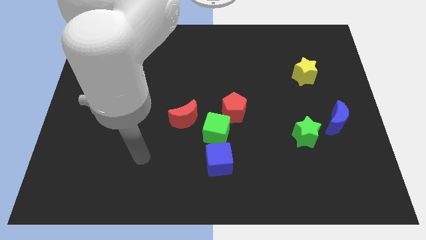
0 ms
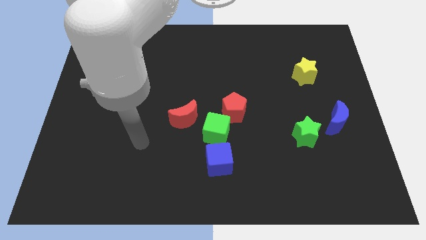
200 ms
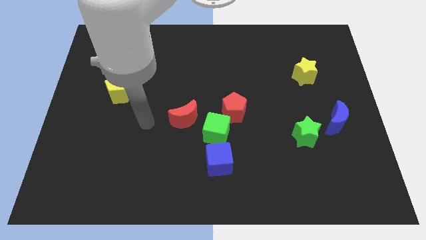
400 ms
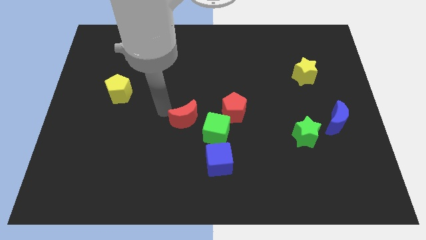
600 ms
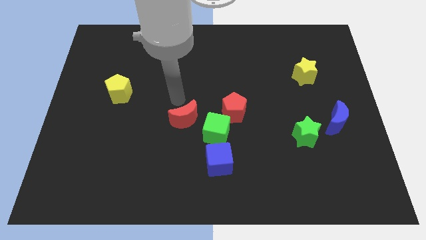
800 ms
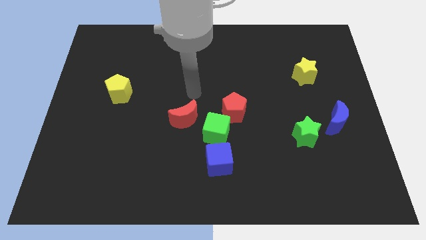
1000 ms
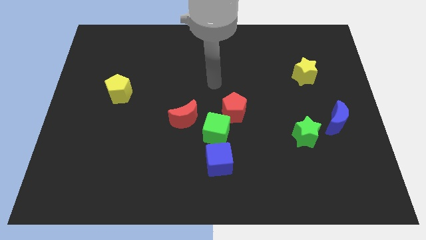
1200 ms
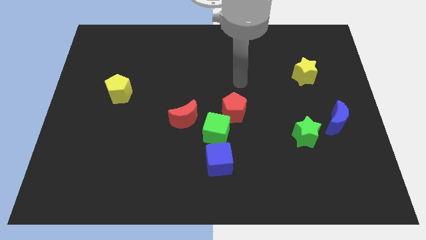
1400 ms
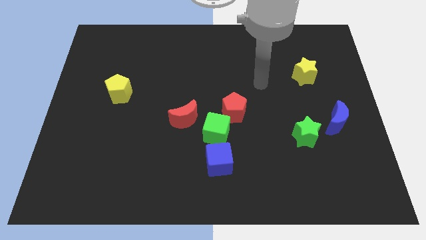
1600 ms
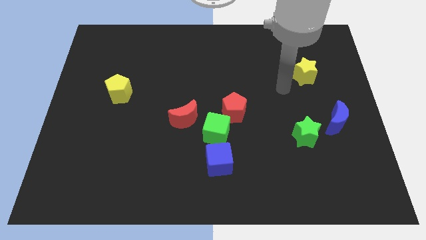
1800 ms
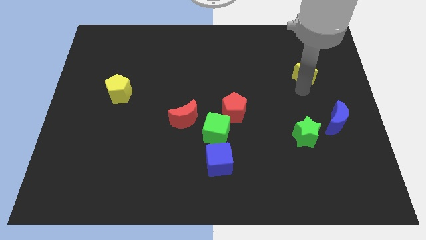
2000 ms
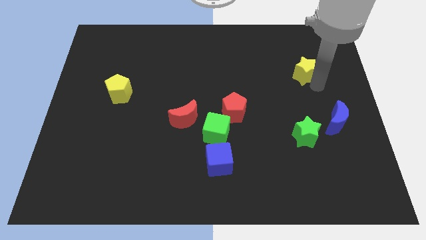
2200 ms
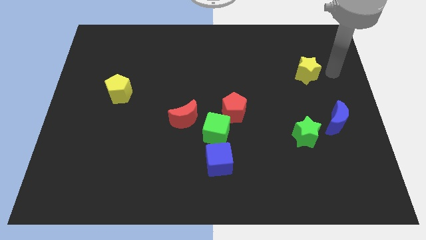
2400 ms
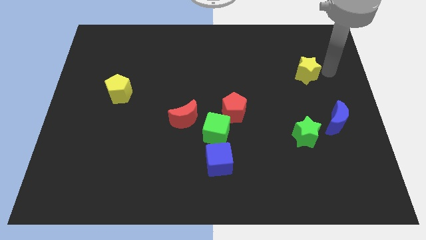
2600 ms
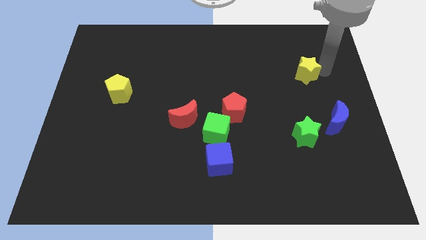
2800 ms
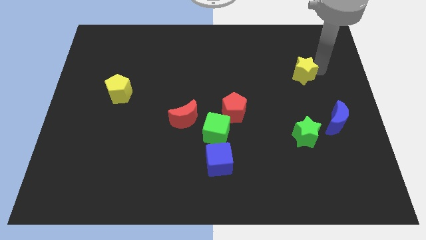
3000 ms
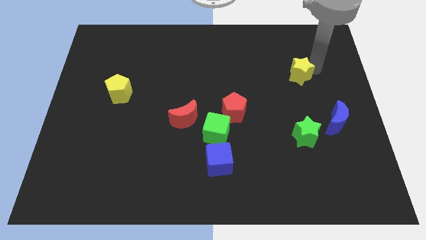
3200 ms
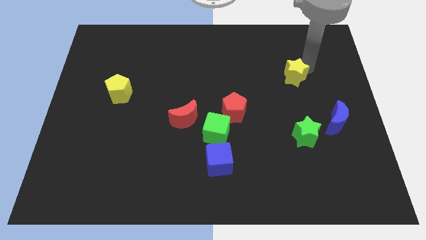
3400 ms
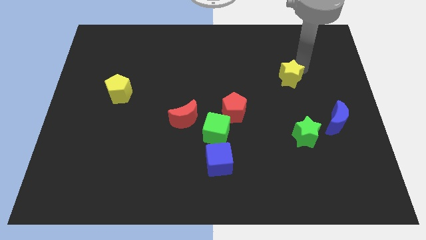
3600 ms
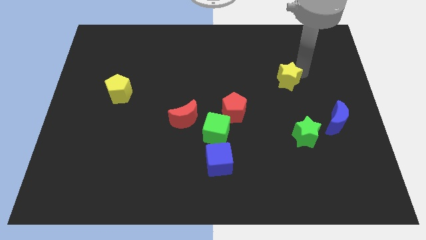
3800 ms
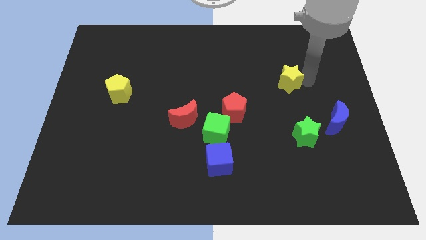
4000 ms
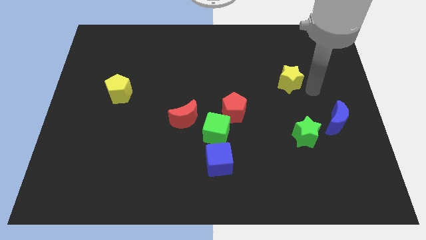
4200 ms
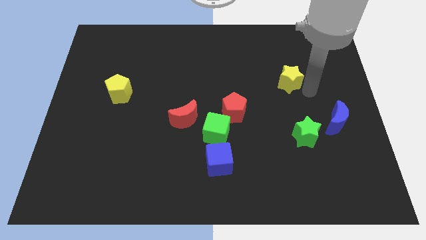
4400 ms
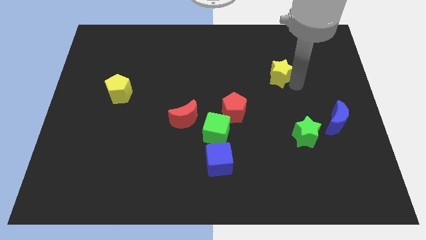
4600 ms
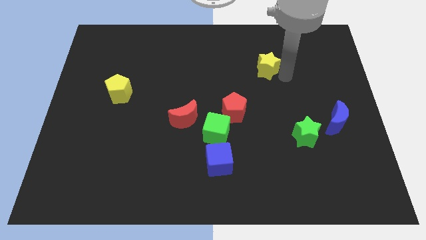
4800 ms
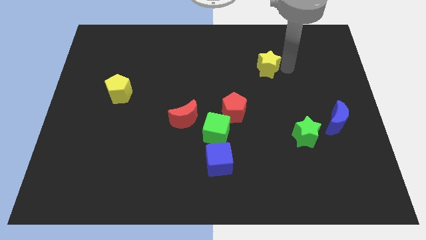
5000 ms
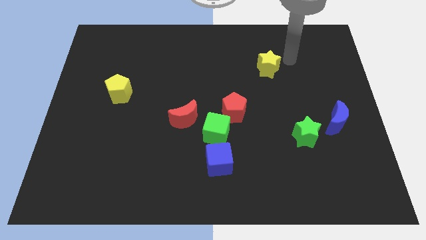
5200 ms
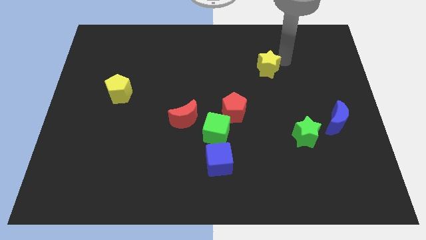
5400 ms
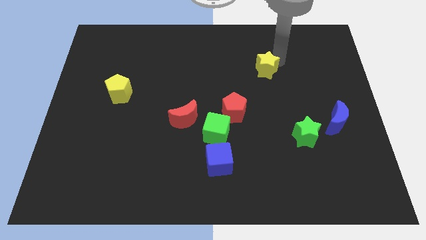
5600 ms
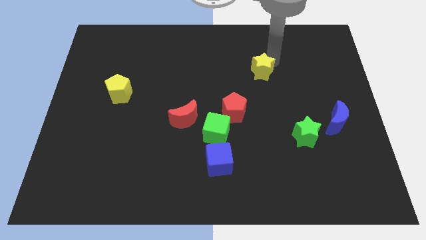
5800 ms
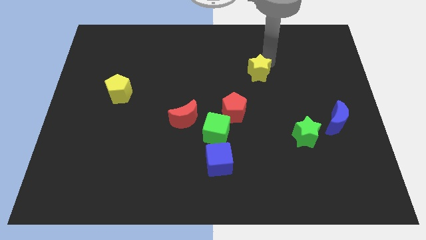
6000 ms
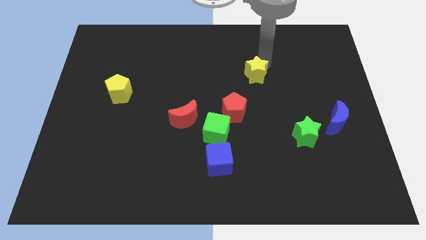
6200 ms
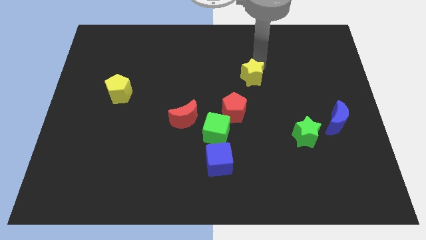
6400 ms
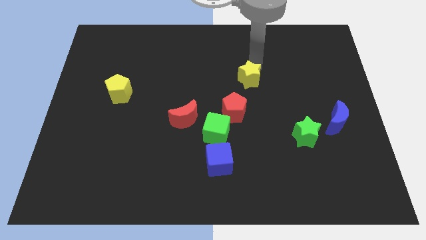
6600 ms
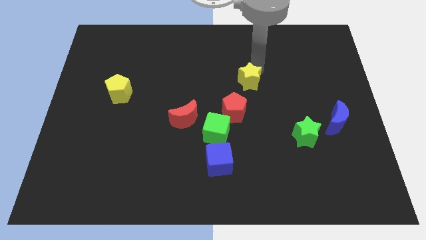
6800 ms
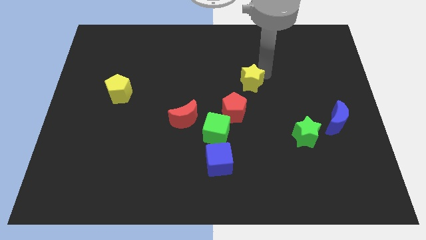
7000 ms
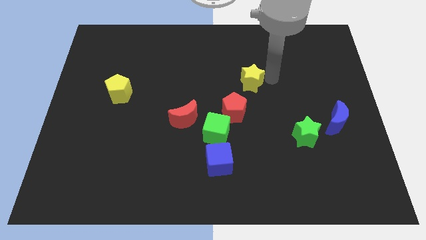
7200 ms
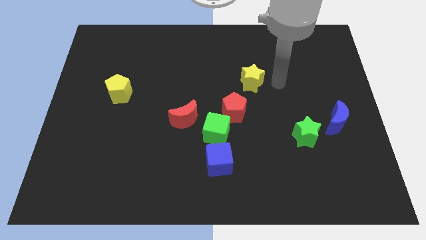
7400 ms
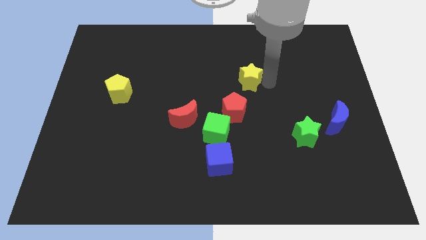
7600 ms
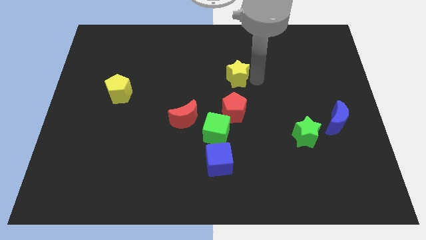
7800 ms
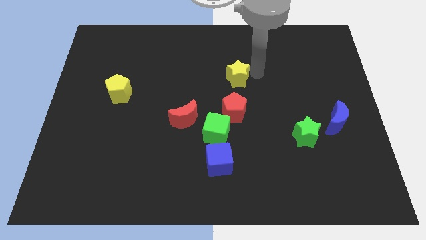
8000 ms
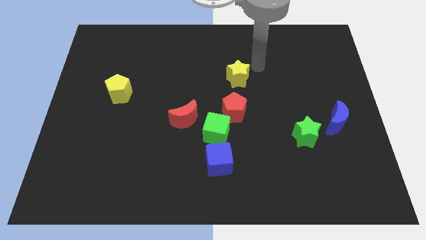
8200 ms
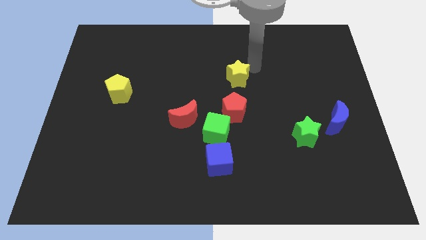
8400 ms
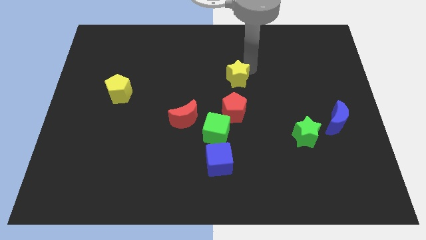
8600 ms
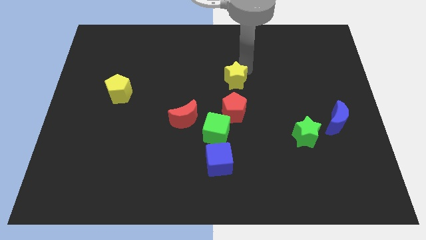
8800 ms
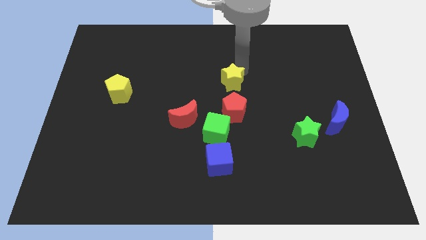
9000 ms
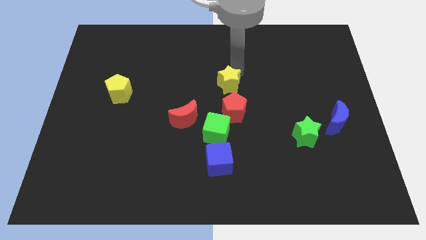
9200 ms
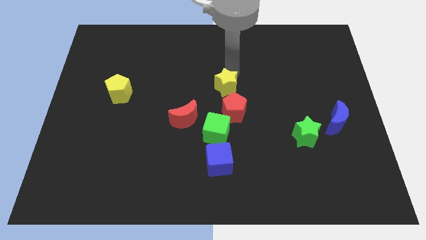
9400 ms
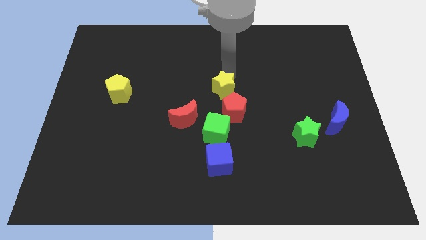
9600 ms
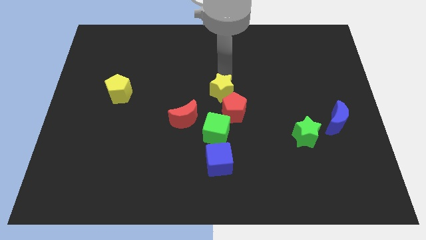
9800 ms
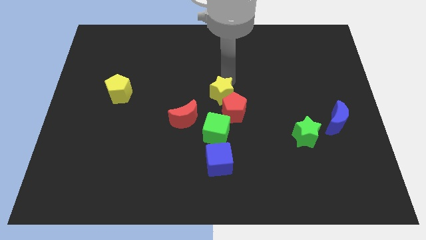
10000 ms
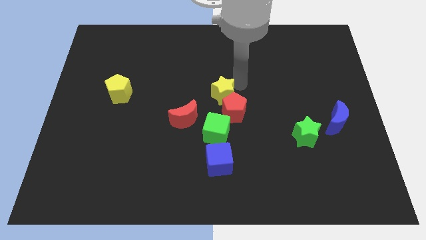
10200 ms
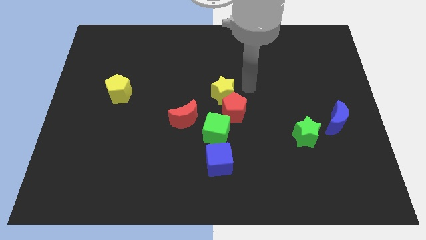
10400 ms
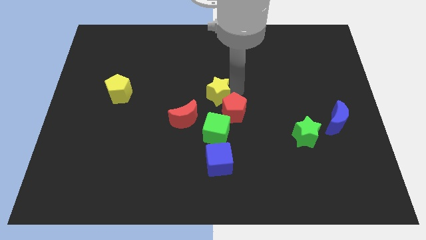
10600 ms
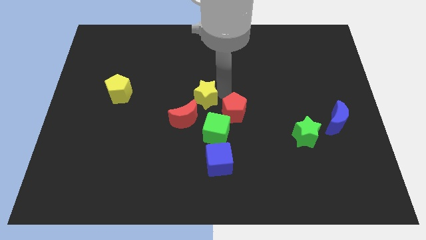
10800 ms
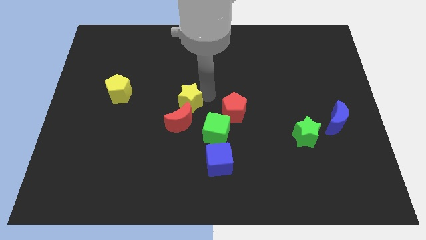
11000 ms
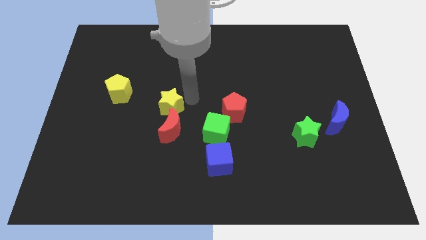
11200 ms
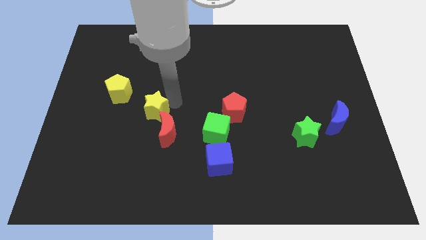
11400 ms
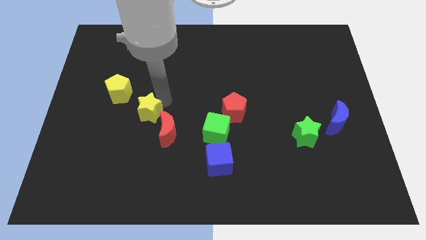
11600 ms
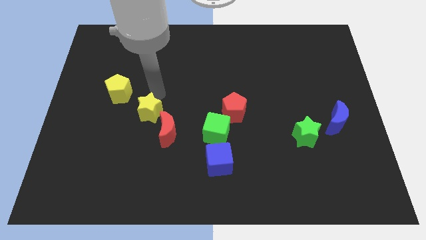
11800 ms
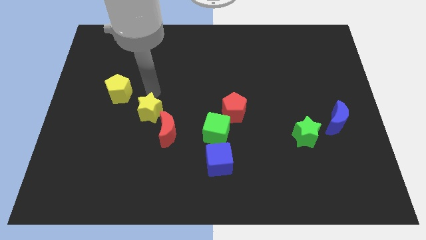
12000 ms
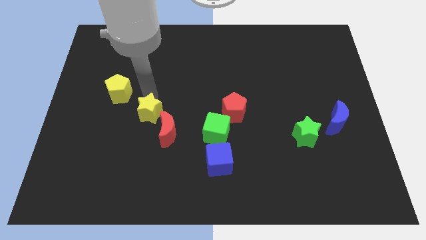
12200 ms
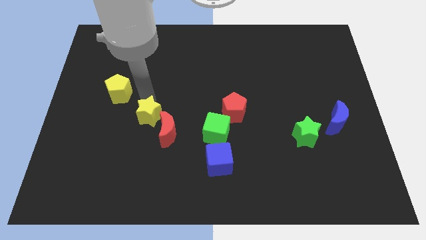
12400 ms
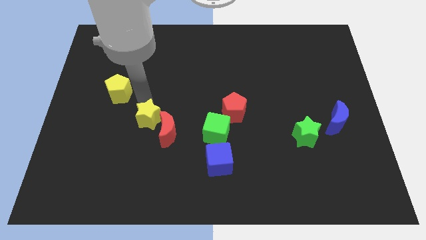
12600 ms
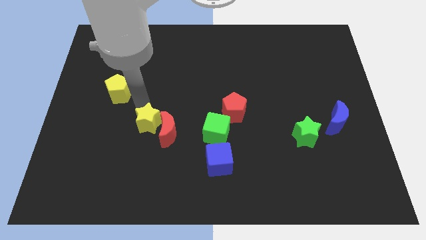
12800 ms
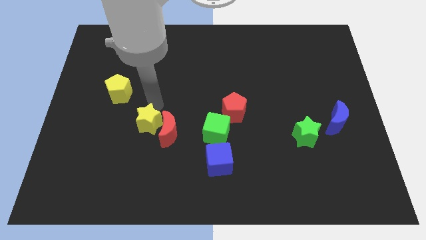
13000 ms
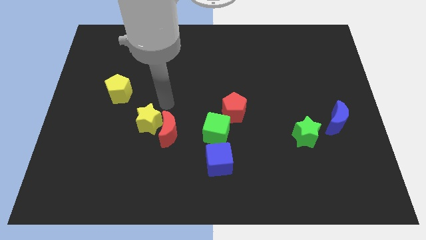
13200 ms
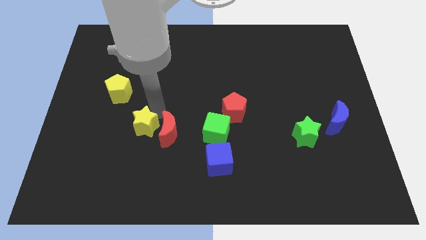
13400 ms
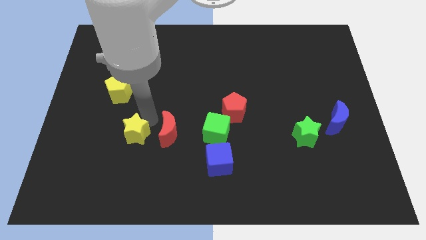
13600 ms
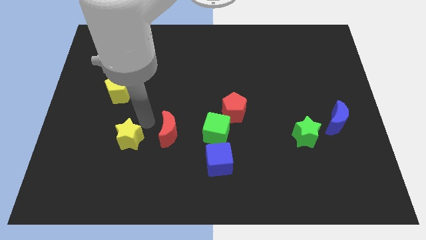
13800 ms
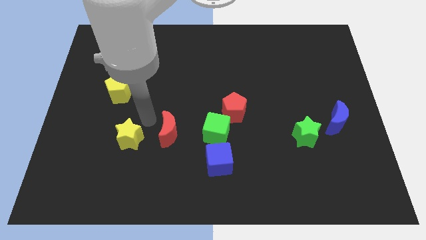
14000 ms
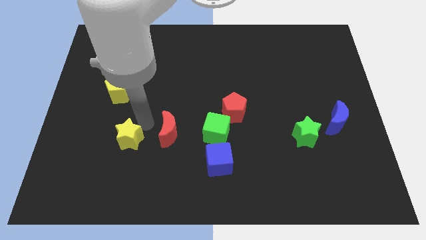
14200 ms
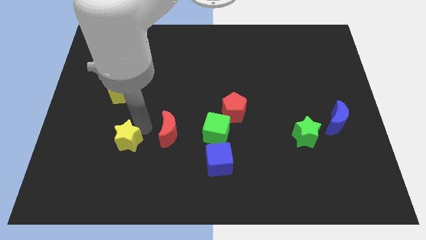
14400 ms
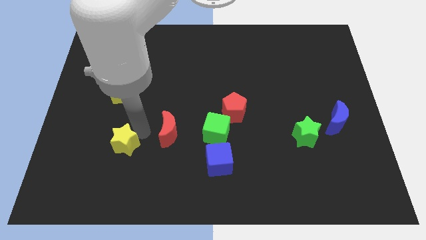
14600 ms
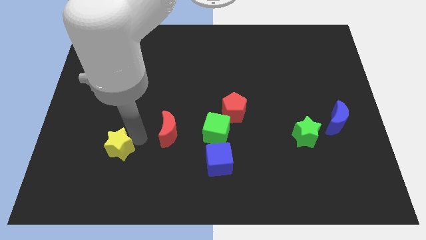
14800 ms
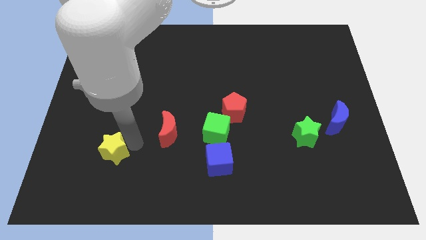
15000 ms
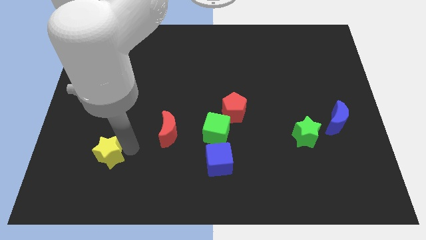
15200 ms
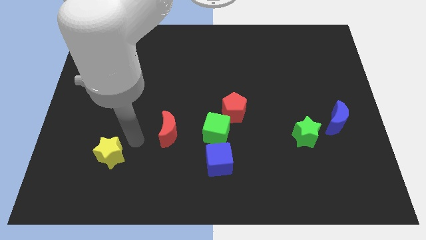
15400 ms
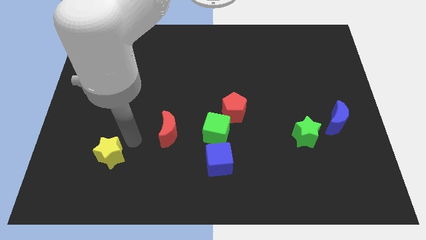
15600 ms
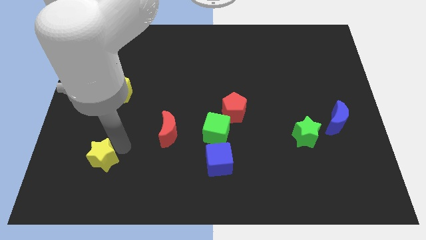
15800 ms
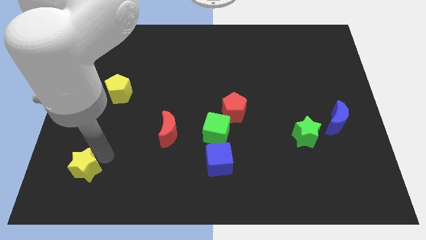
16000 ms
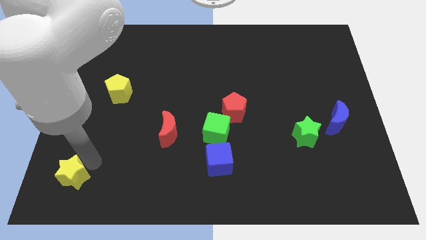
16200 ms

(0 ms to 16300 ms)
put the yellow star to the lower left corner
